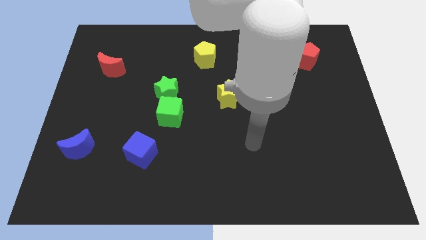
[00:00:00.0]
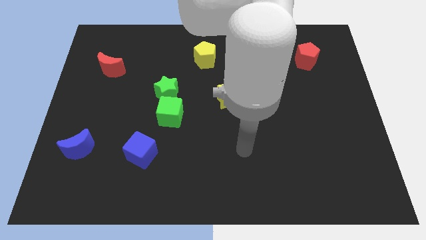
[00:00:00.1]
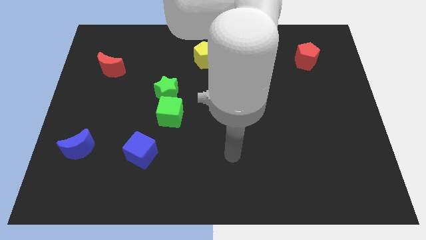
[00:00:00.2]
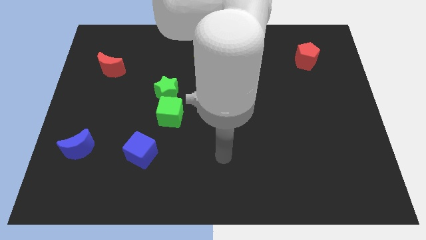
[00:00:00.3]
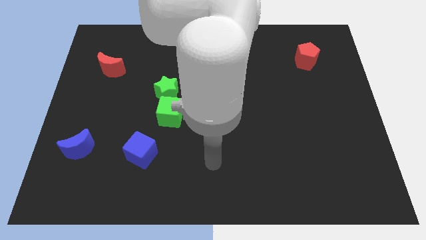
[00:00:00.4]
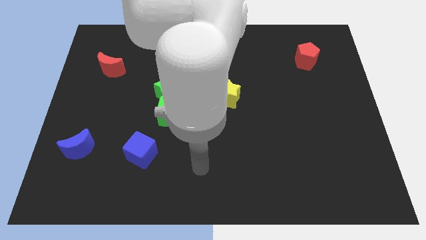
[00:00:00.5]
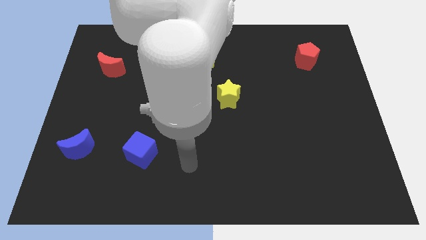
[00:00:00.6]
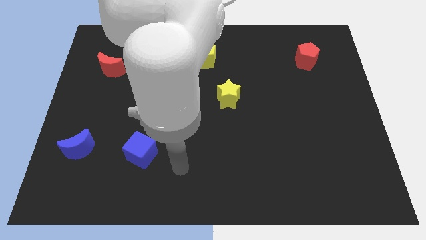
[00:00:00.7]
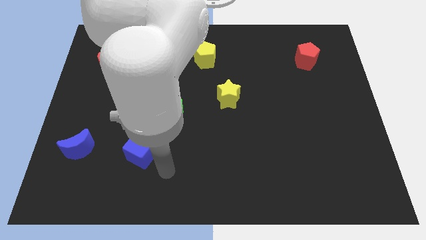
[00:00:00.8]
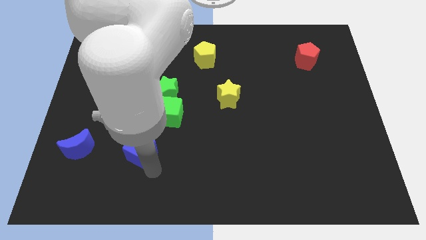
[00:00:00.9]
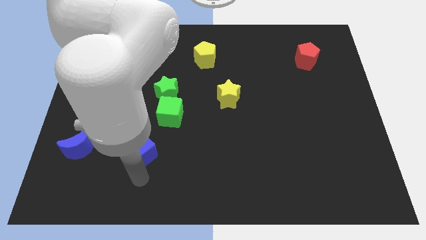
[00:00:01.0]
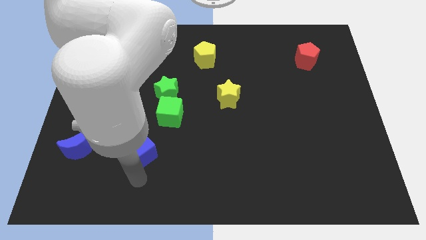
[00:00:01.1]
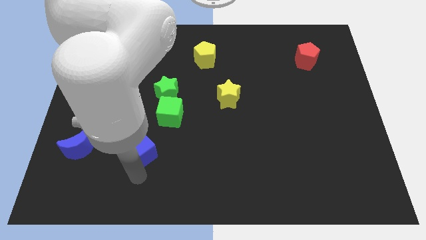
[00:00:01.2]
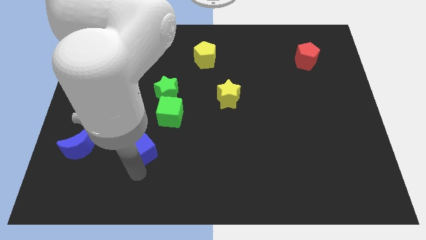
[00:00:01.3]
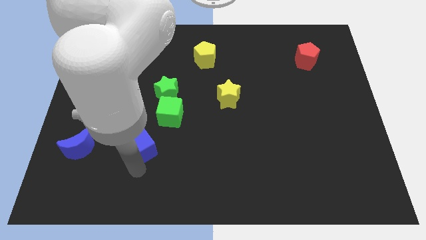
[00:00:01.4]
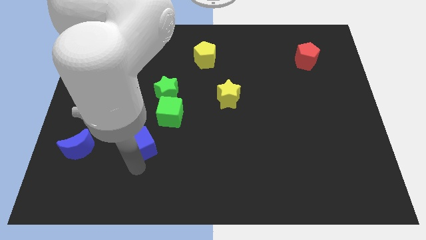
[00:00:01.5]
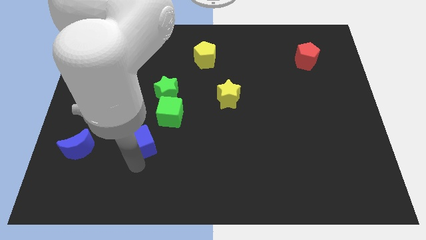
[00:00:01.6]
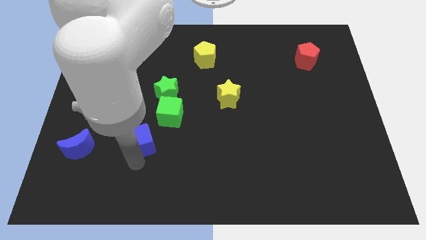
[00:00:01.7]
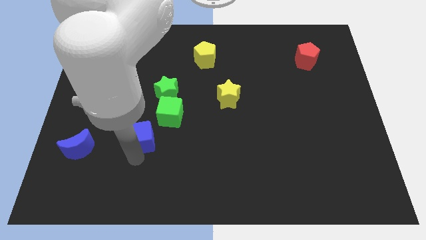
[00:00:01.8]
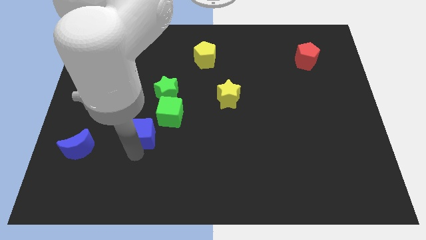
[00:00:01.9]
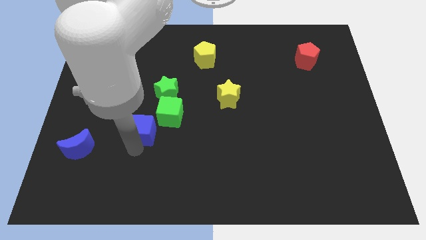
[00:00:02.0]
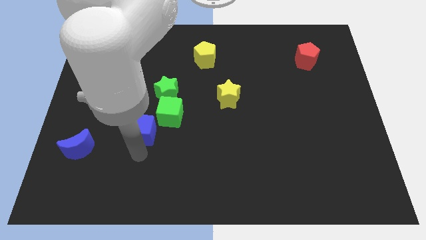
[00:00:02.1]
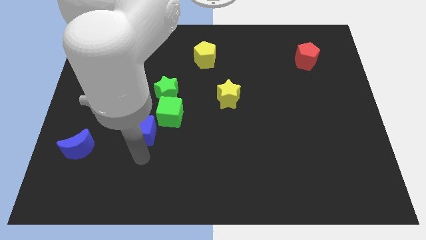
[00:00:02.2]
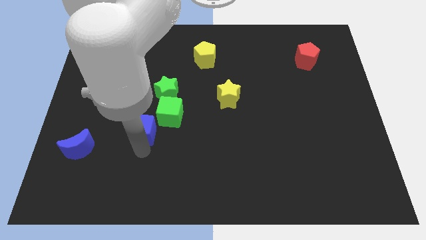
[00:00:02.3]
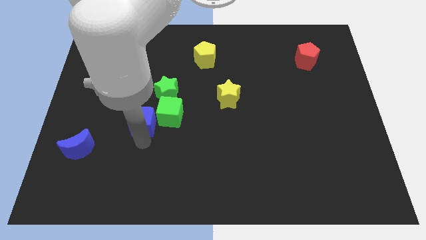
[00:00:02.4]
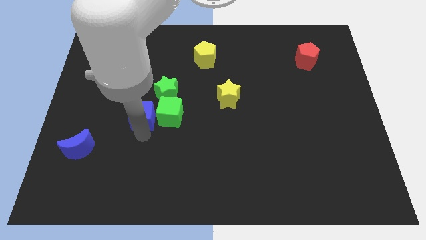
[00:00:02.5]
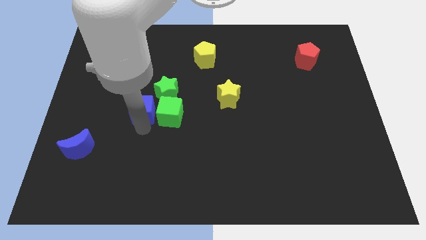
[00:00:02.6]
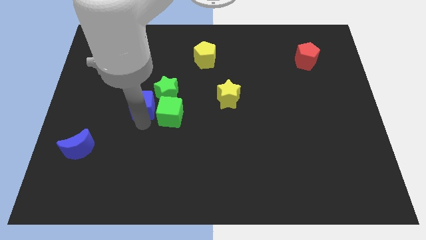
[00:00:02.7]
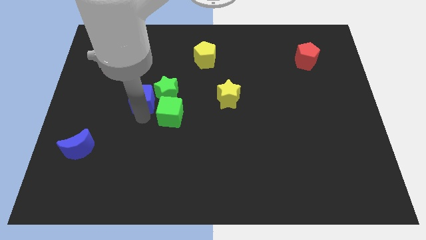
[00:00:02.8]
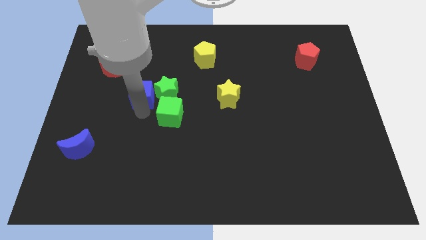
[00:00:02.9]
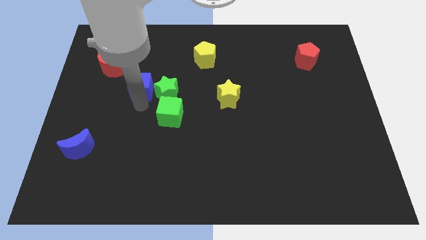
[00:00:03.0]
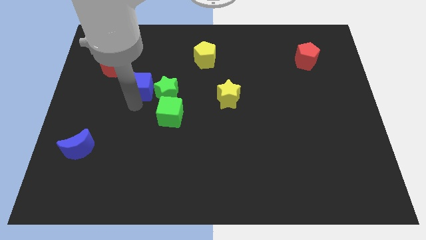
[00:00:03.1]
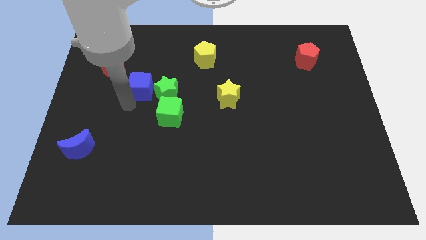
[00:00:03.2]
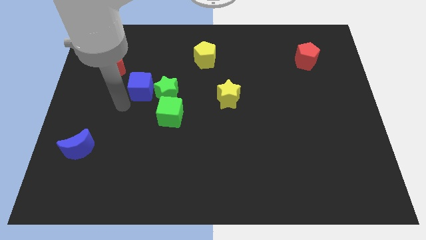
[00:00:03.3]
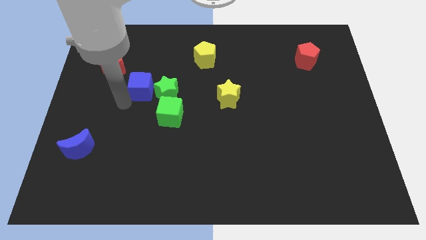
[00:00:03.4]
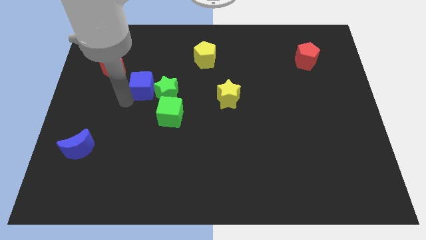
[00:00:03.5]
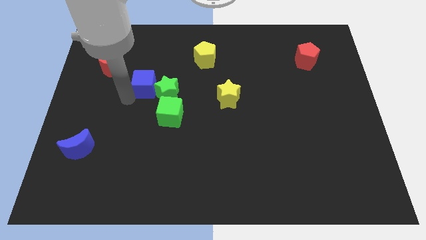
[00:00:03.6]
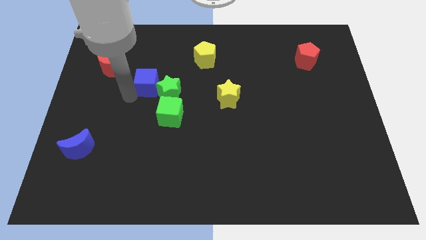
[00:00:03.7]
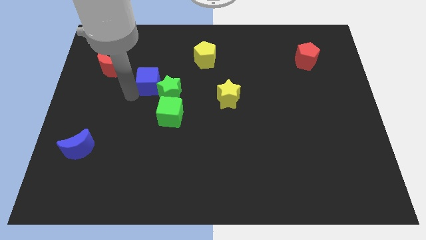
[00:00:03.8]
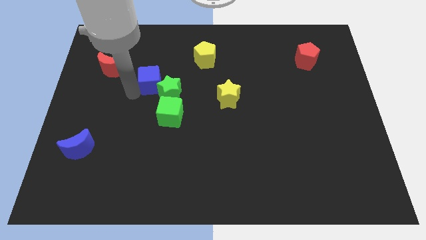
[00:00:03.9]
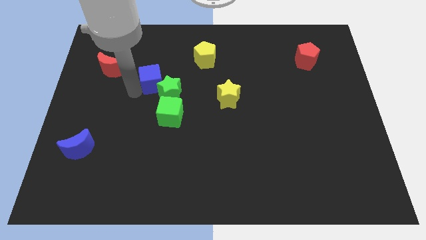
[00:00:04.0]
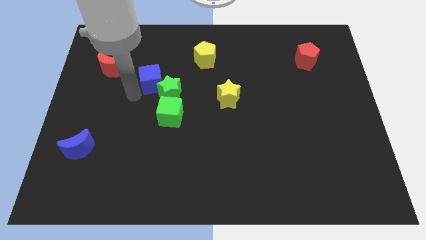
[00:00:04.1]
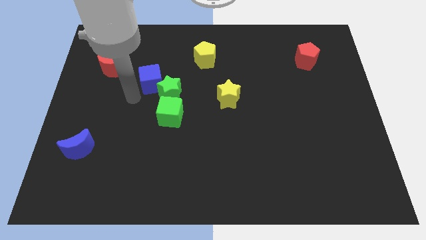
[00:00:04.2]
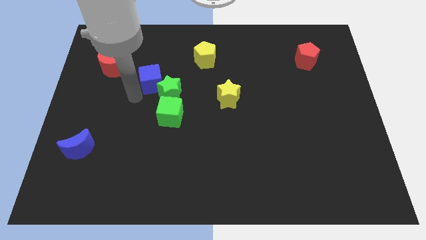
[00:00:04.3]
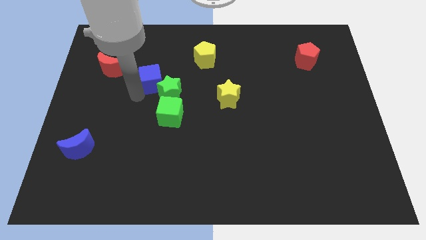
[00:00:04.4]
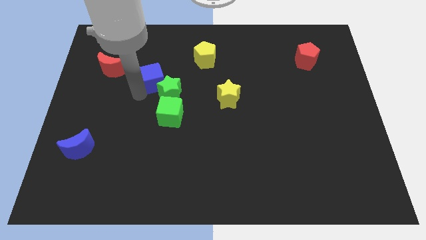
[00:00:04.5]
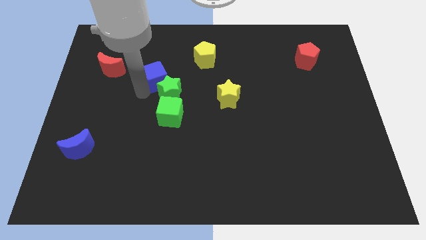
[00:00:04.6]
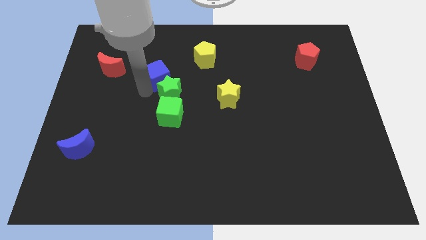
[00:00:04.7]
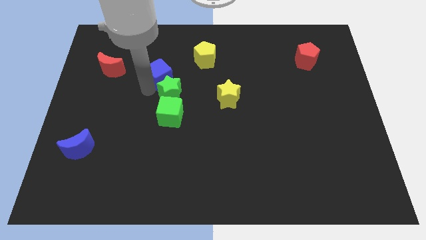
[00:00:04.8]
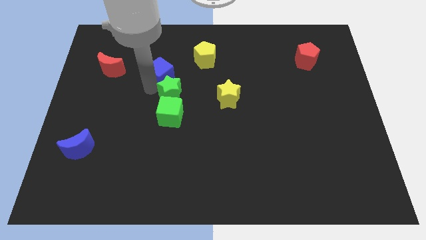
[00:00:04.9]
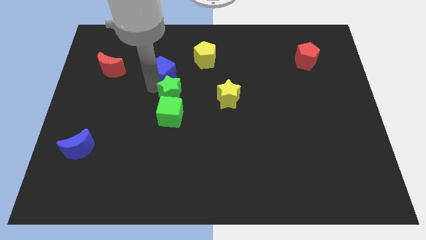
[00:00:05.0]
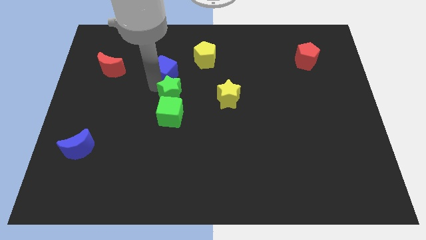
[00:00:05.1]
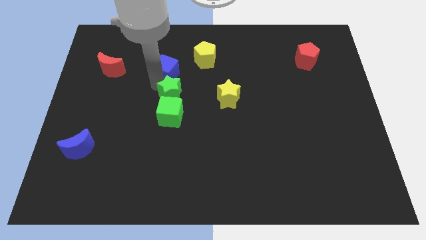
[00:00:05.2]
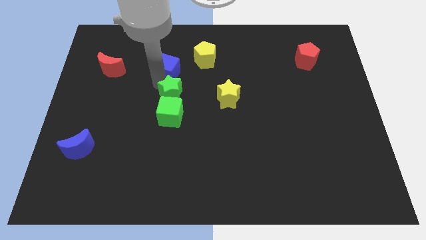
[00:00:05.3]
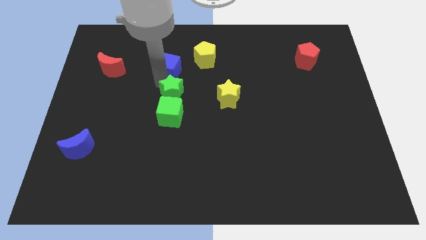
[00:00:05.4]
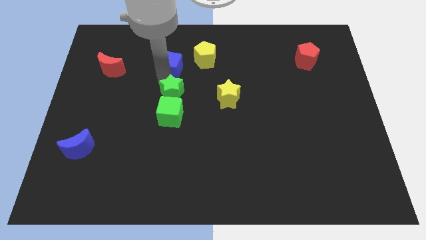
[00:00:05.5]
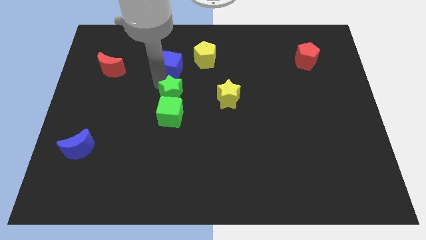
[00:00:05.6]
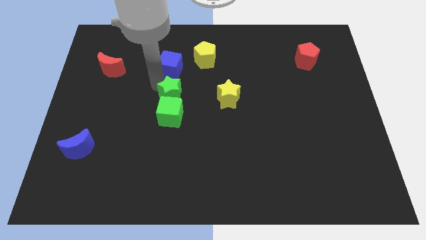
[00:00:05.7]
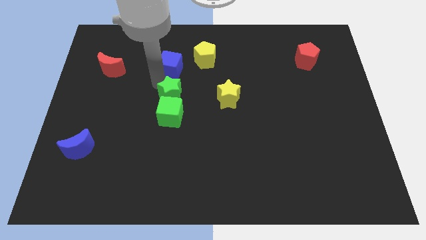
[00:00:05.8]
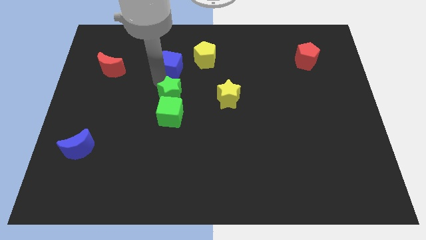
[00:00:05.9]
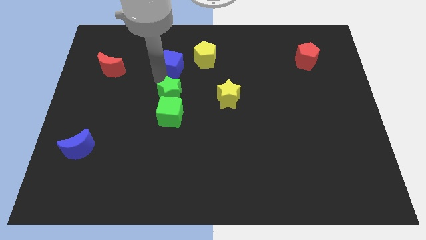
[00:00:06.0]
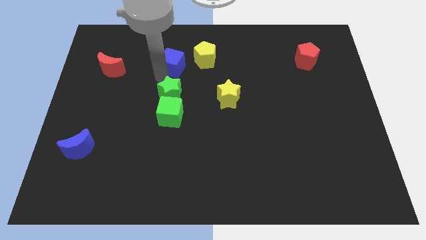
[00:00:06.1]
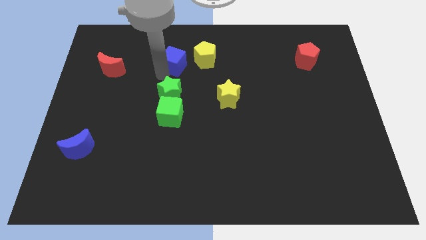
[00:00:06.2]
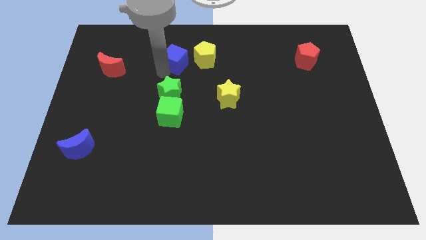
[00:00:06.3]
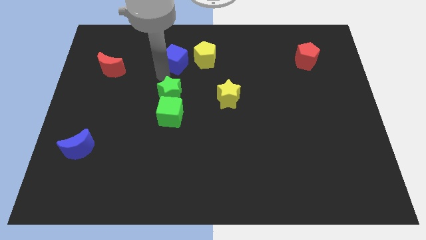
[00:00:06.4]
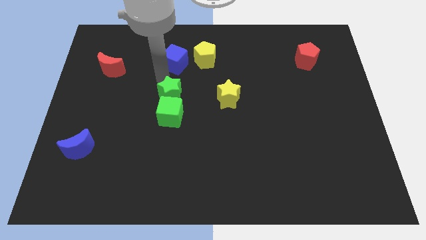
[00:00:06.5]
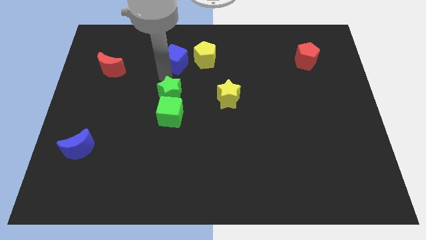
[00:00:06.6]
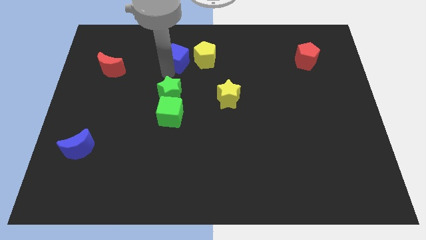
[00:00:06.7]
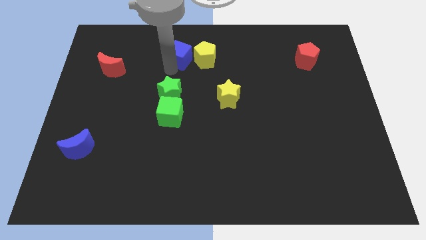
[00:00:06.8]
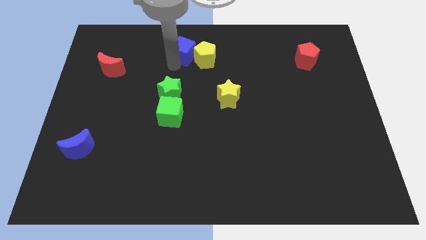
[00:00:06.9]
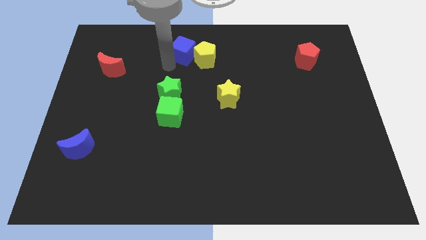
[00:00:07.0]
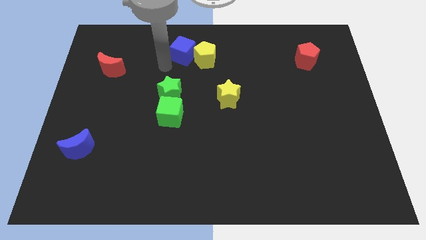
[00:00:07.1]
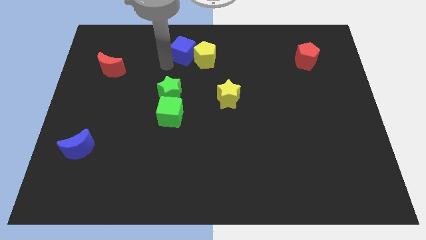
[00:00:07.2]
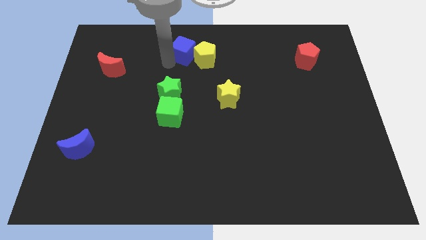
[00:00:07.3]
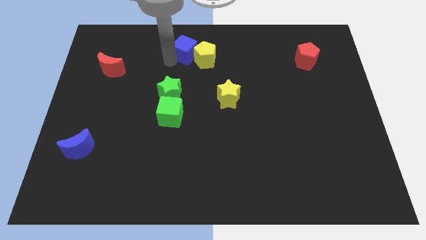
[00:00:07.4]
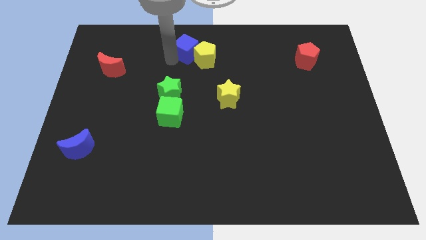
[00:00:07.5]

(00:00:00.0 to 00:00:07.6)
slide the blue cube to the top side
